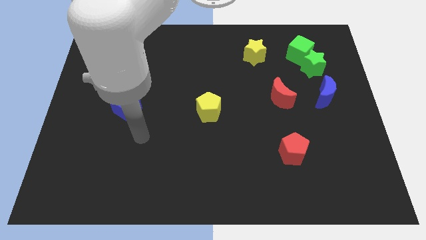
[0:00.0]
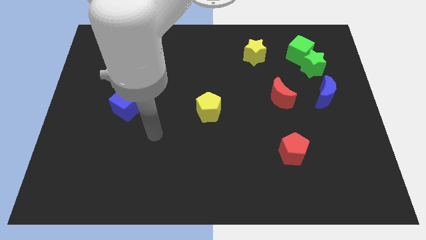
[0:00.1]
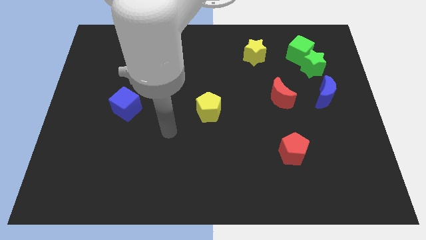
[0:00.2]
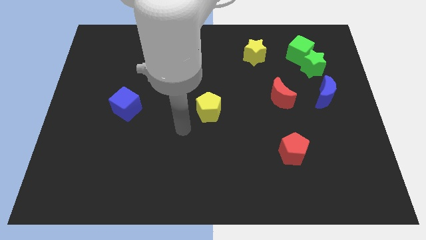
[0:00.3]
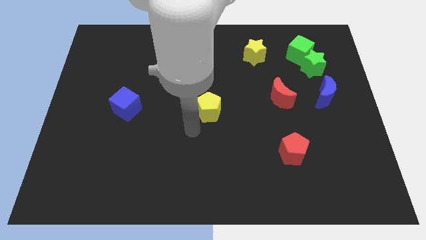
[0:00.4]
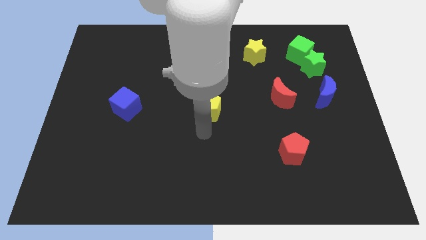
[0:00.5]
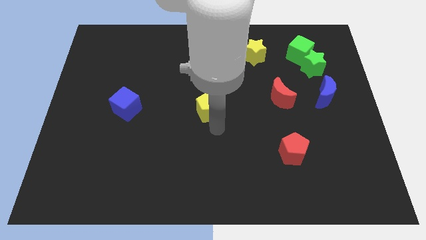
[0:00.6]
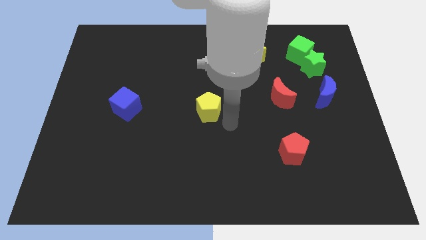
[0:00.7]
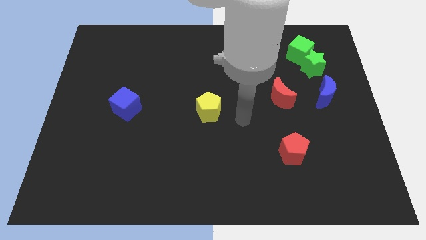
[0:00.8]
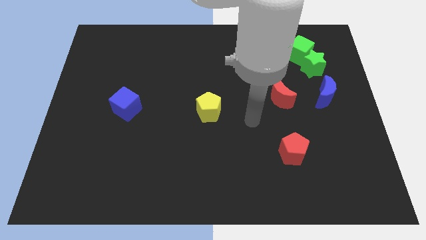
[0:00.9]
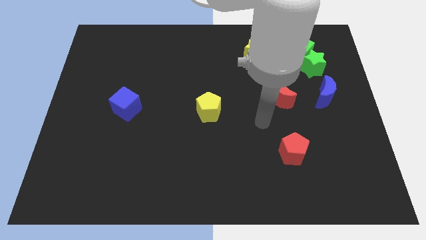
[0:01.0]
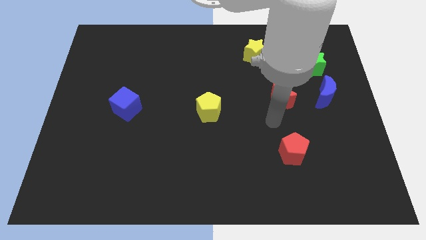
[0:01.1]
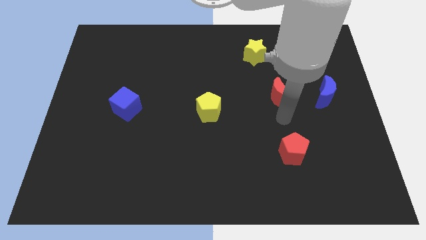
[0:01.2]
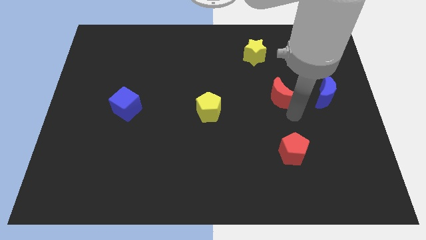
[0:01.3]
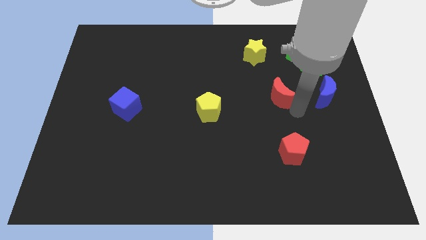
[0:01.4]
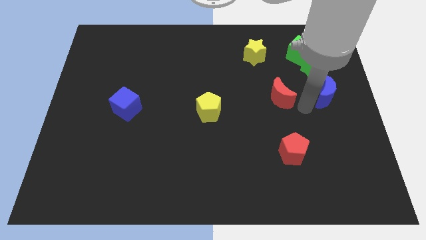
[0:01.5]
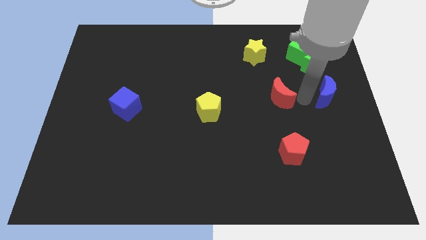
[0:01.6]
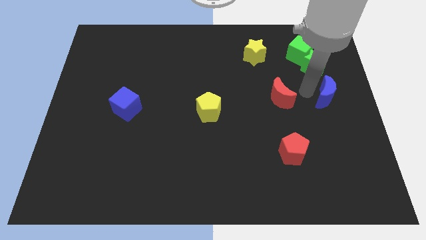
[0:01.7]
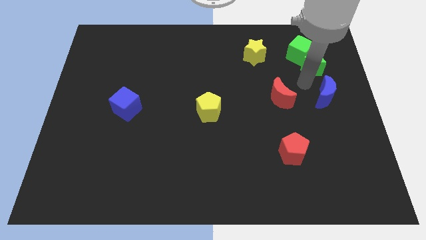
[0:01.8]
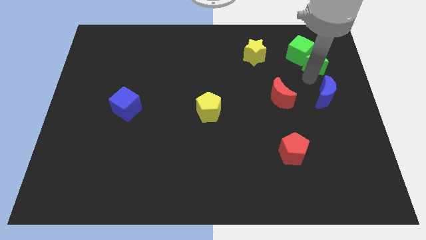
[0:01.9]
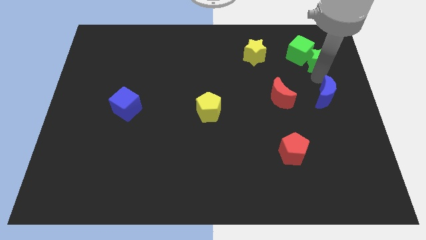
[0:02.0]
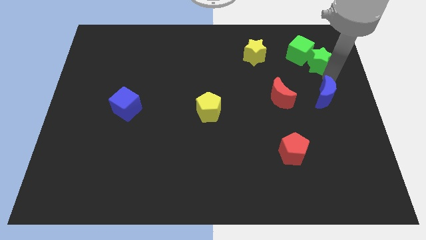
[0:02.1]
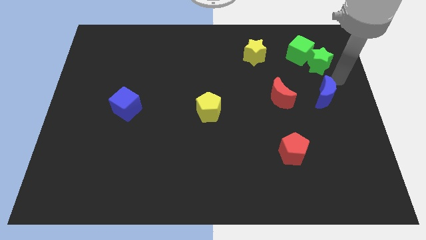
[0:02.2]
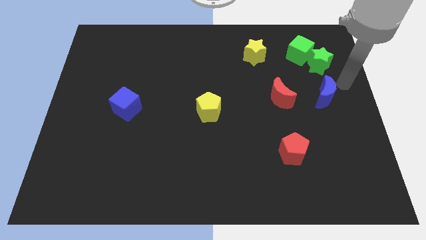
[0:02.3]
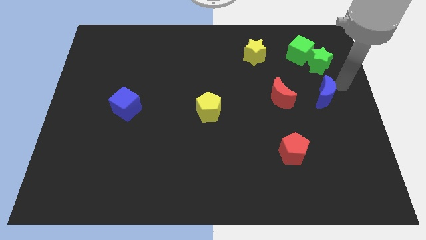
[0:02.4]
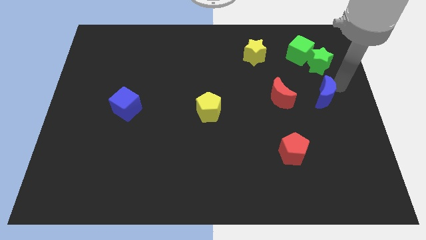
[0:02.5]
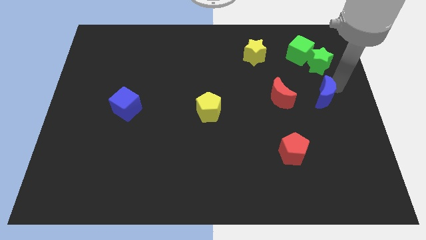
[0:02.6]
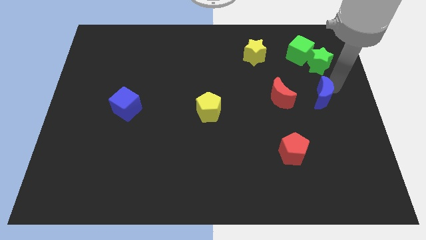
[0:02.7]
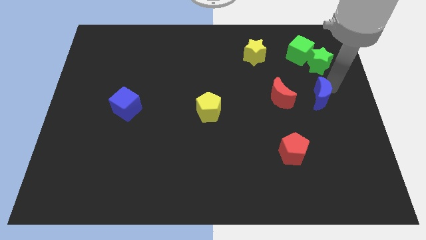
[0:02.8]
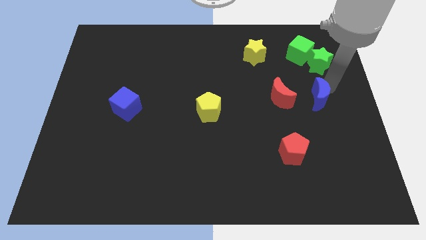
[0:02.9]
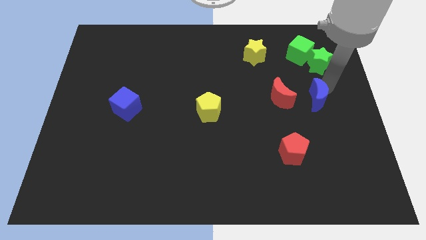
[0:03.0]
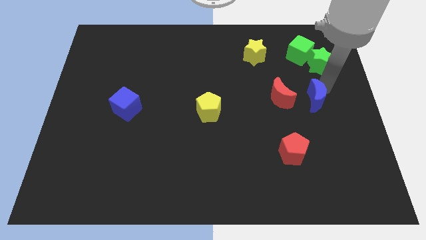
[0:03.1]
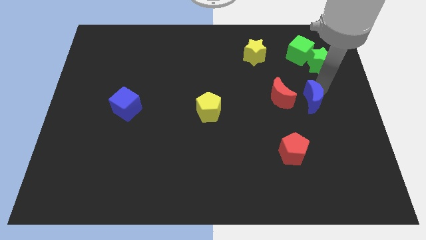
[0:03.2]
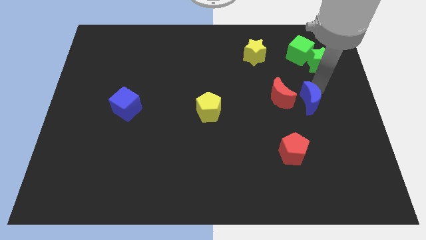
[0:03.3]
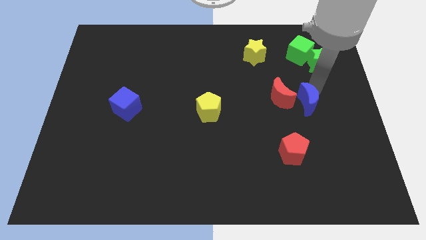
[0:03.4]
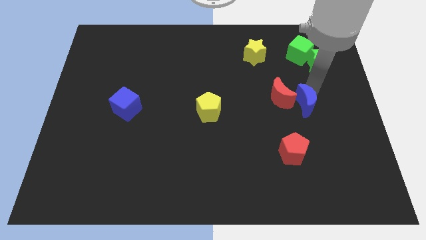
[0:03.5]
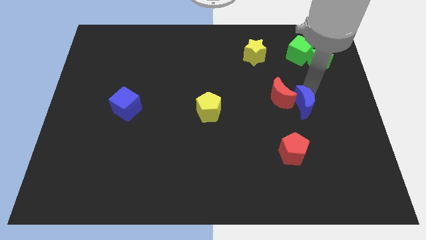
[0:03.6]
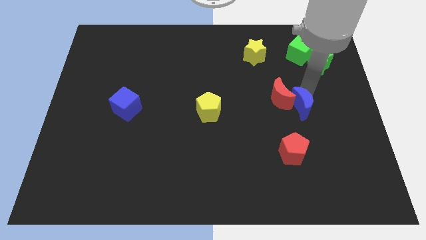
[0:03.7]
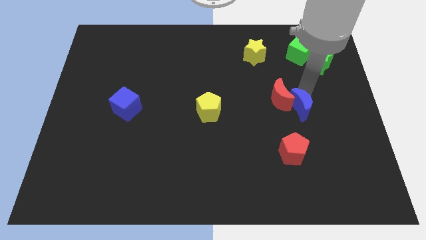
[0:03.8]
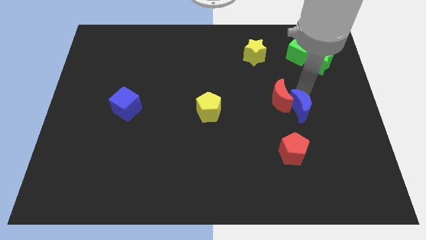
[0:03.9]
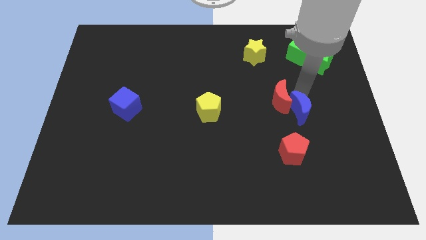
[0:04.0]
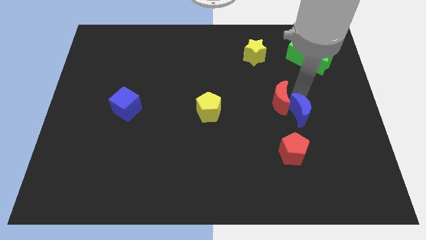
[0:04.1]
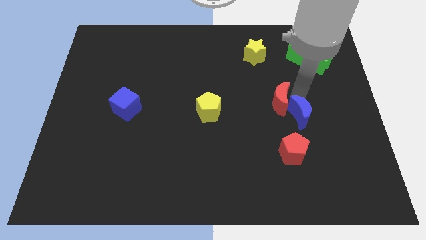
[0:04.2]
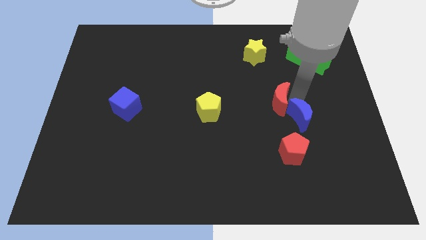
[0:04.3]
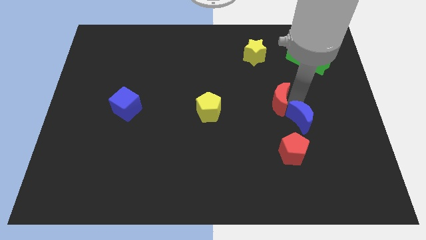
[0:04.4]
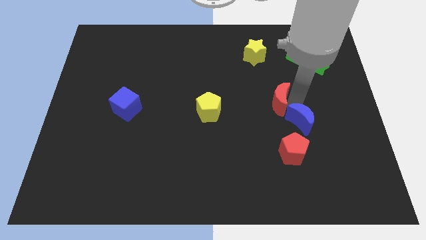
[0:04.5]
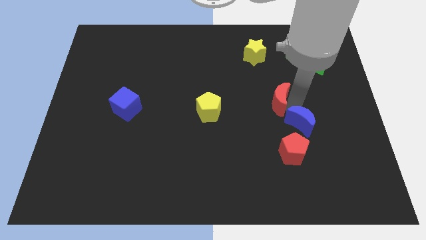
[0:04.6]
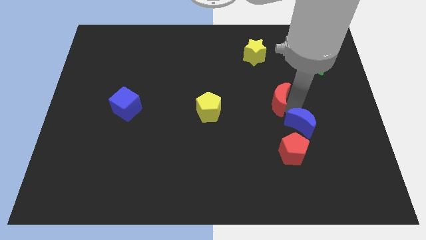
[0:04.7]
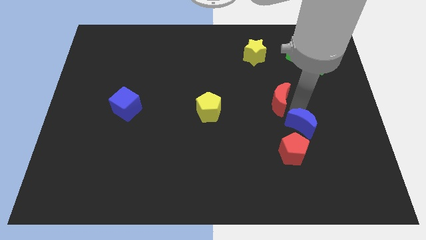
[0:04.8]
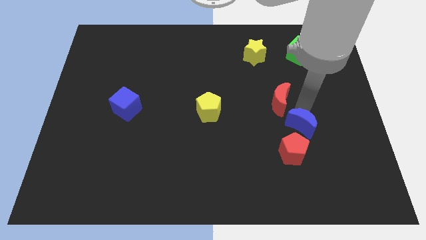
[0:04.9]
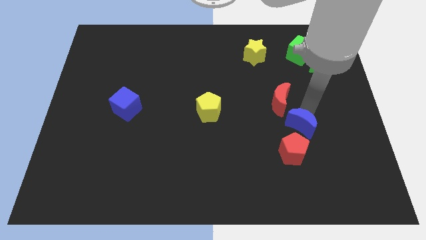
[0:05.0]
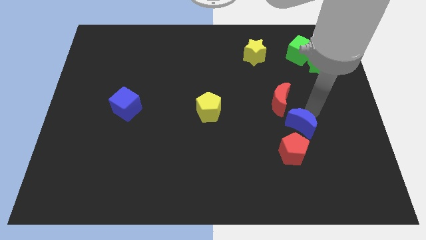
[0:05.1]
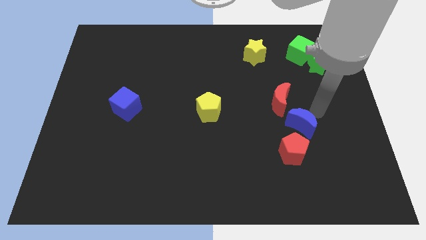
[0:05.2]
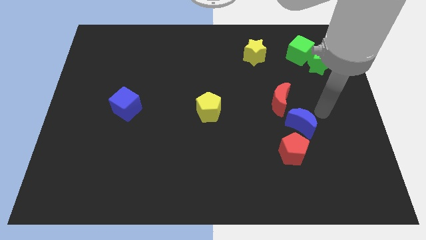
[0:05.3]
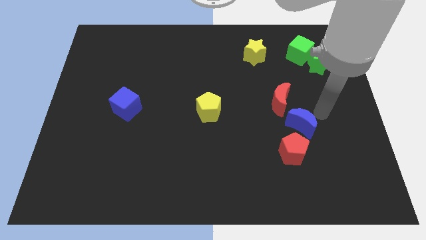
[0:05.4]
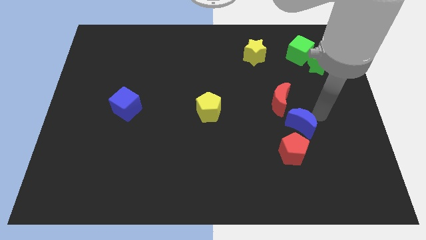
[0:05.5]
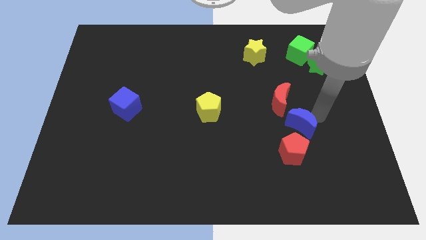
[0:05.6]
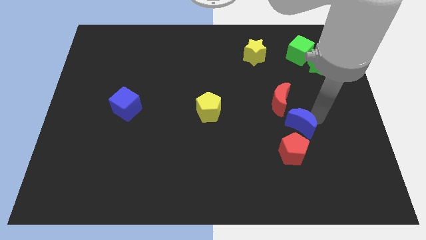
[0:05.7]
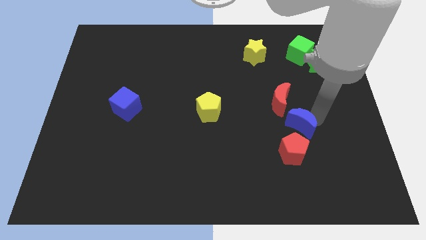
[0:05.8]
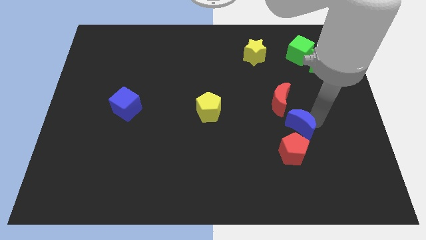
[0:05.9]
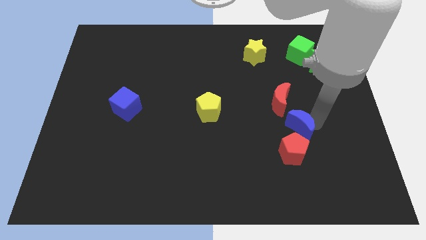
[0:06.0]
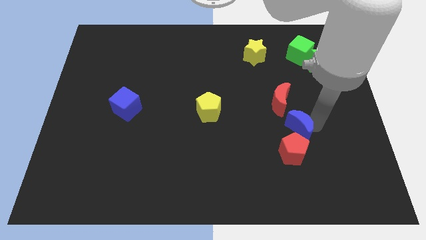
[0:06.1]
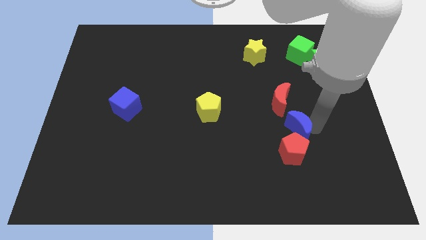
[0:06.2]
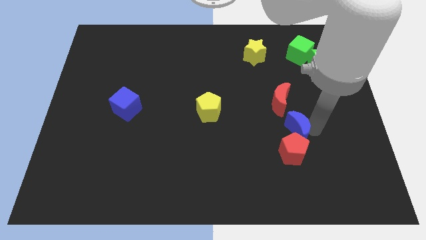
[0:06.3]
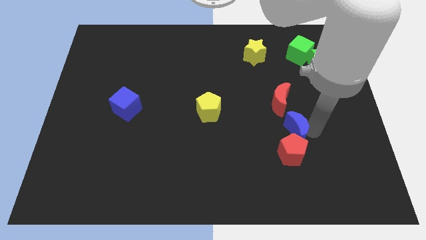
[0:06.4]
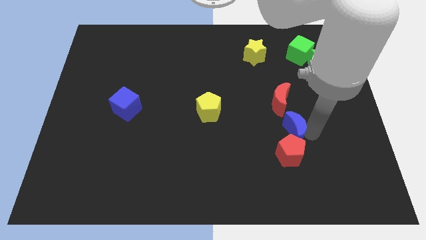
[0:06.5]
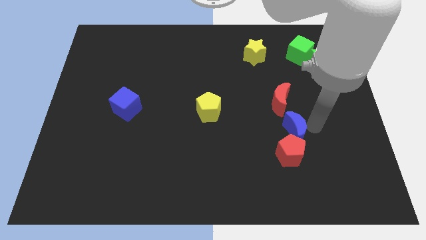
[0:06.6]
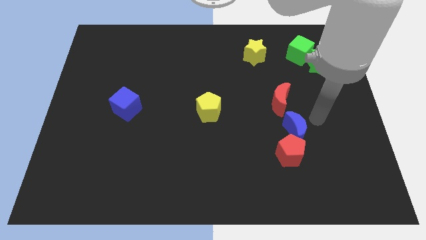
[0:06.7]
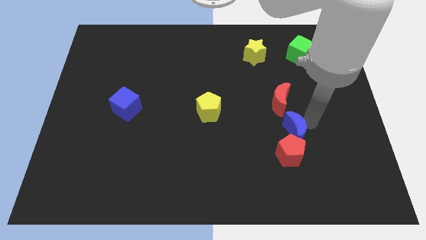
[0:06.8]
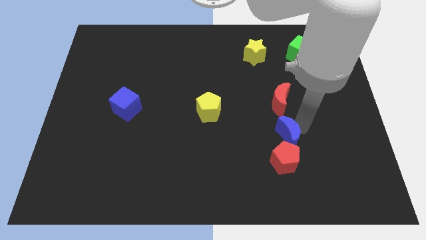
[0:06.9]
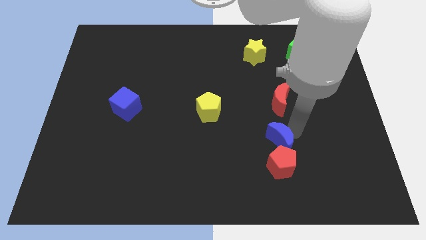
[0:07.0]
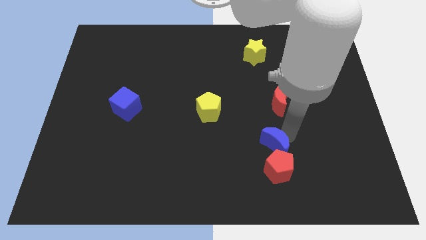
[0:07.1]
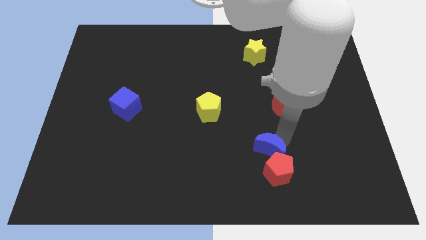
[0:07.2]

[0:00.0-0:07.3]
push the blue moon diagonally down and left

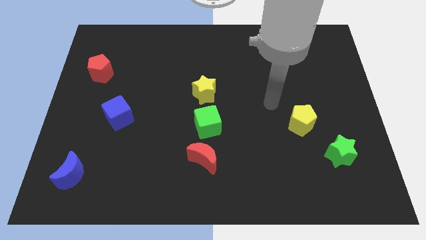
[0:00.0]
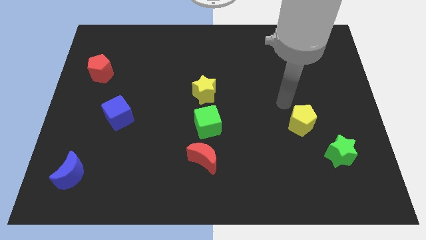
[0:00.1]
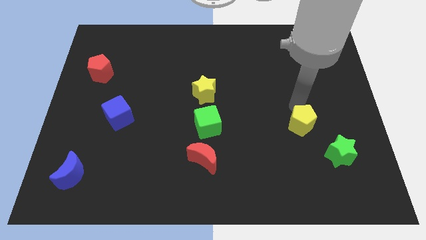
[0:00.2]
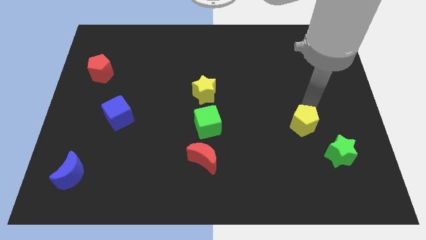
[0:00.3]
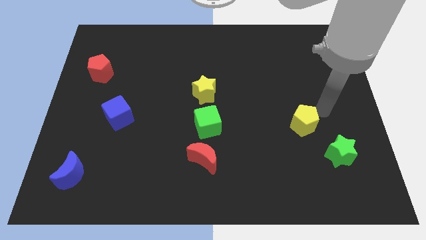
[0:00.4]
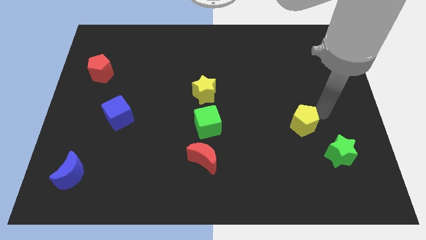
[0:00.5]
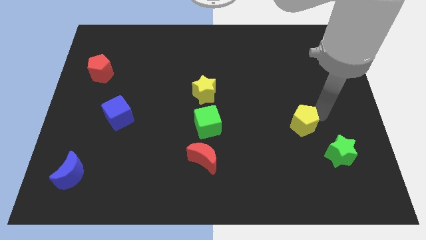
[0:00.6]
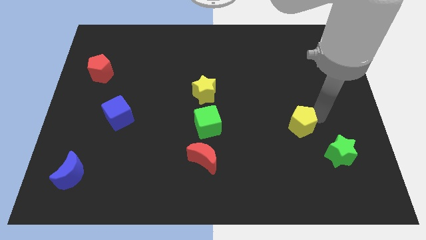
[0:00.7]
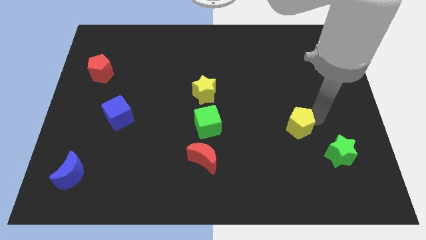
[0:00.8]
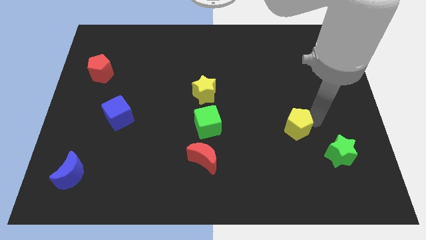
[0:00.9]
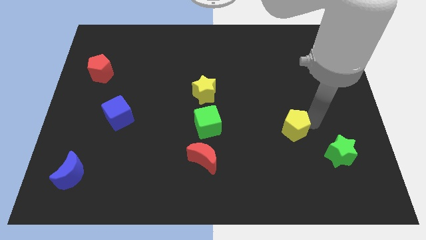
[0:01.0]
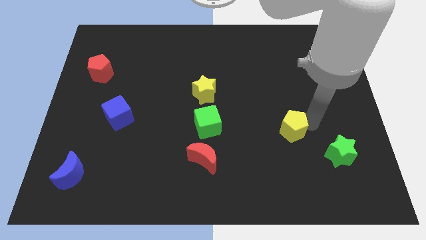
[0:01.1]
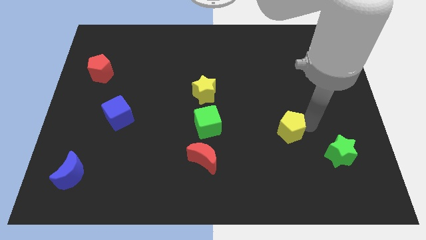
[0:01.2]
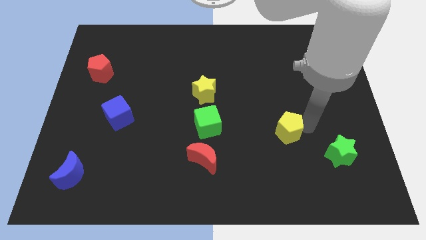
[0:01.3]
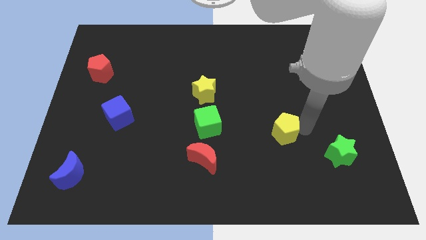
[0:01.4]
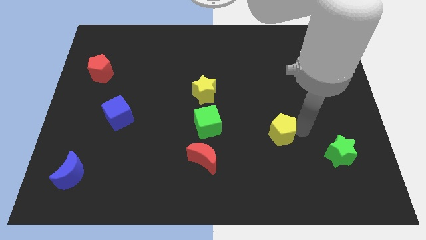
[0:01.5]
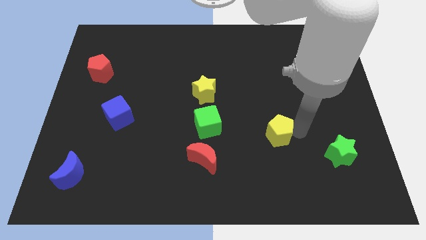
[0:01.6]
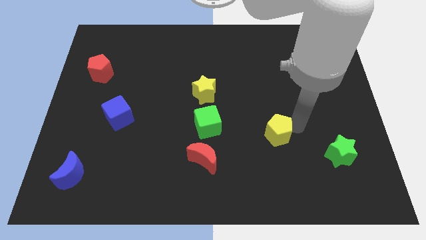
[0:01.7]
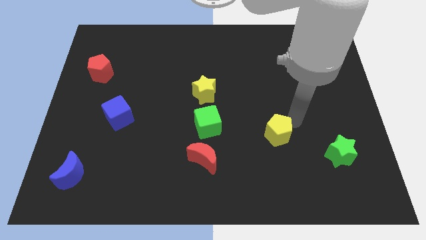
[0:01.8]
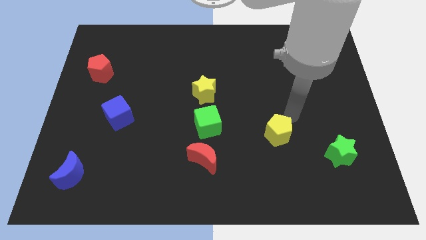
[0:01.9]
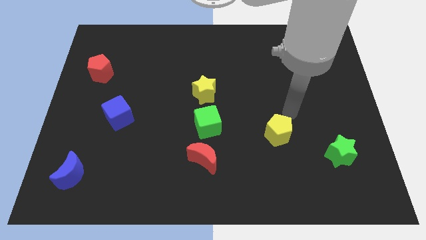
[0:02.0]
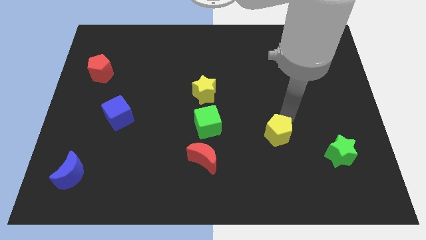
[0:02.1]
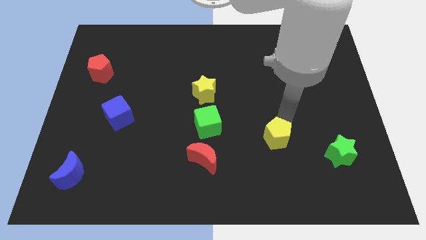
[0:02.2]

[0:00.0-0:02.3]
slide the yellow pentagon downwards and left a little
